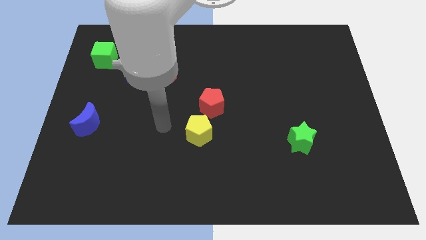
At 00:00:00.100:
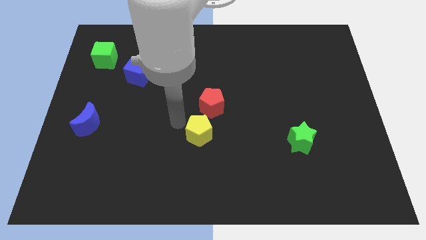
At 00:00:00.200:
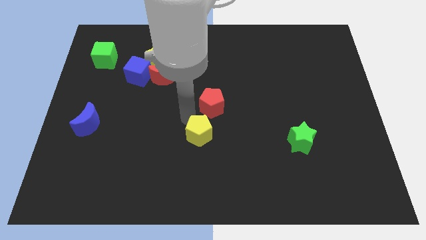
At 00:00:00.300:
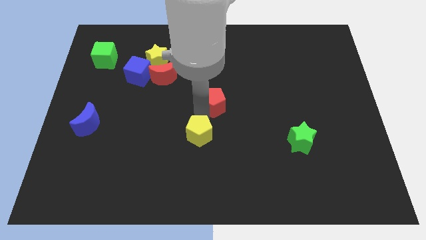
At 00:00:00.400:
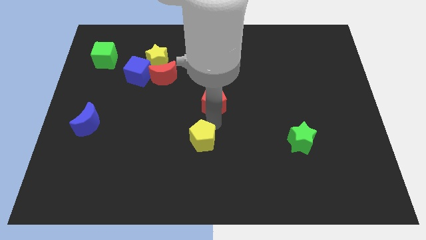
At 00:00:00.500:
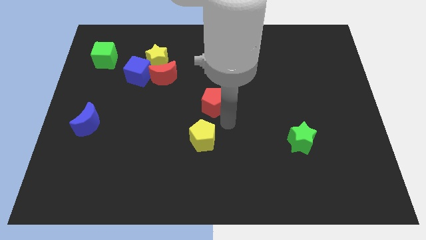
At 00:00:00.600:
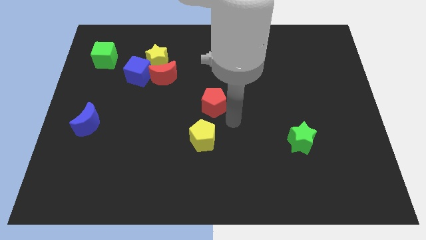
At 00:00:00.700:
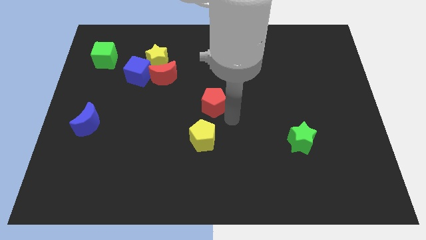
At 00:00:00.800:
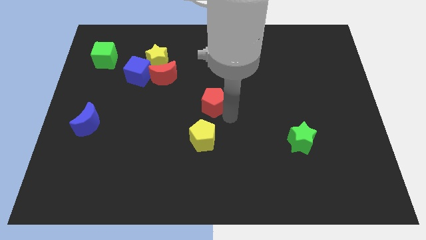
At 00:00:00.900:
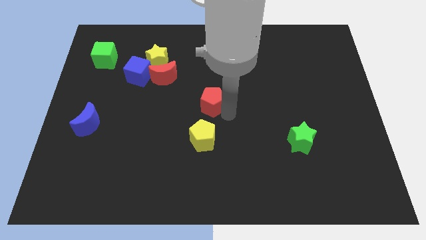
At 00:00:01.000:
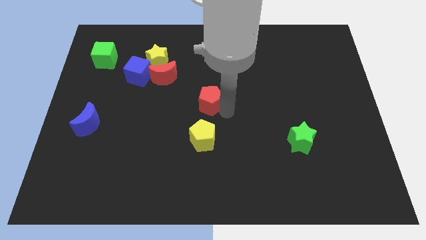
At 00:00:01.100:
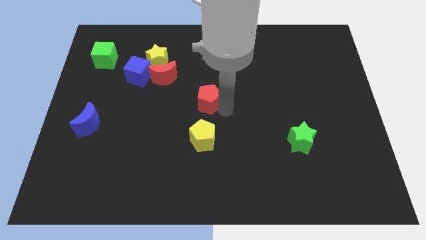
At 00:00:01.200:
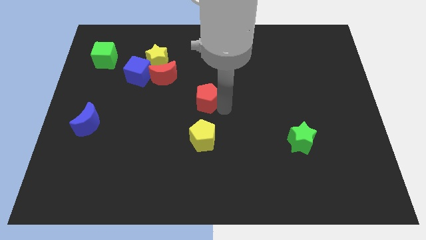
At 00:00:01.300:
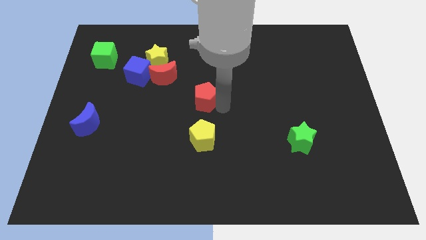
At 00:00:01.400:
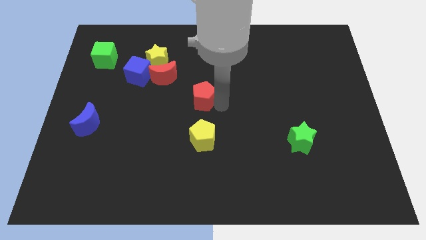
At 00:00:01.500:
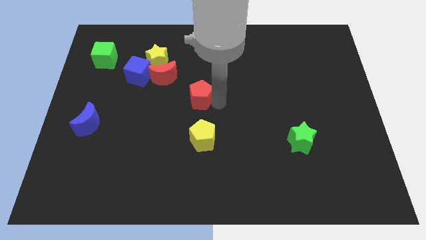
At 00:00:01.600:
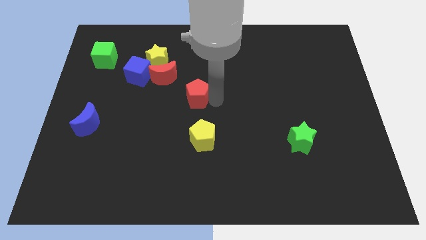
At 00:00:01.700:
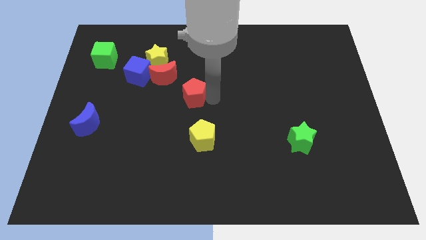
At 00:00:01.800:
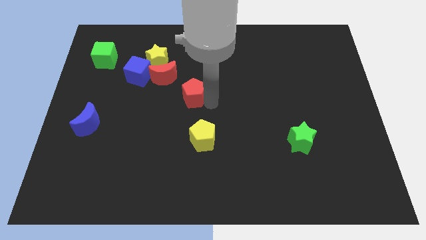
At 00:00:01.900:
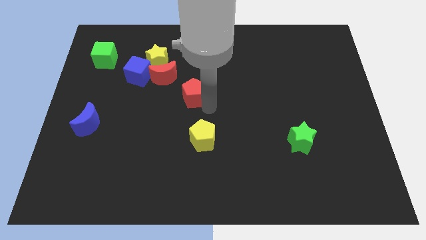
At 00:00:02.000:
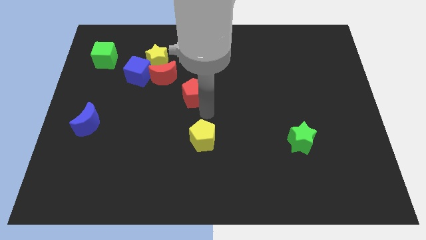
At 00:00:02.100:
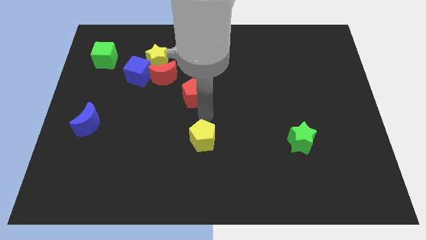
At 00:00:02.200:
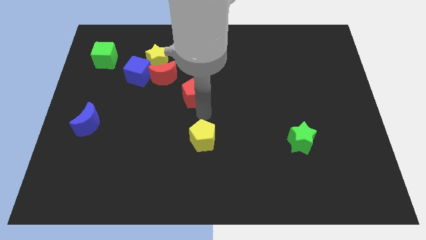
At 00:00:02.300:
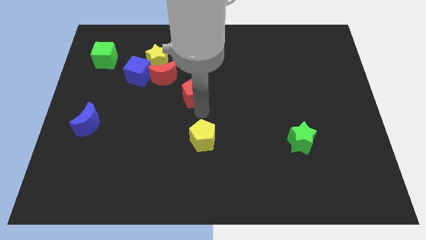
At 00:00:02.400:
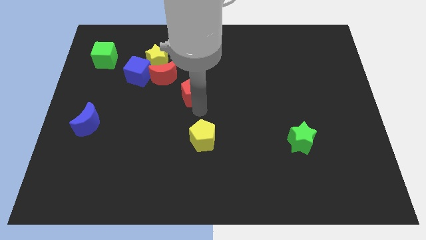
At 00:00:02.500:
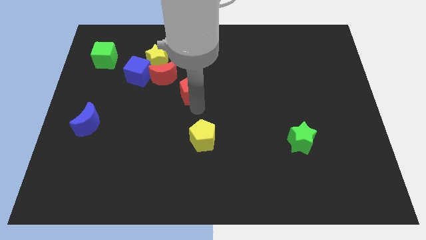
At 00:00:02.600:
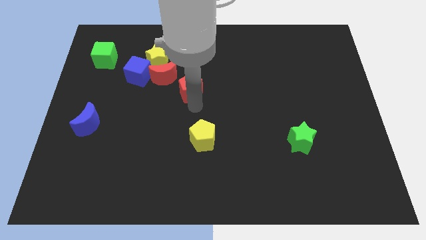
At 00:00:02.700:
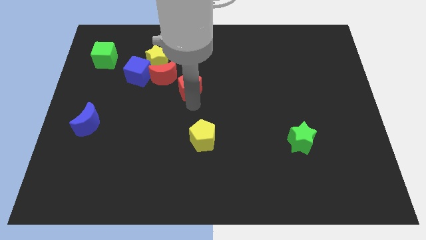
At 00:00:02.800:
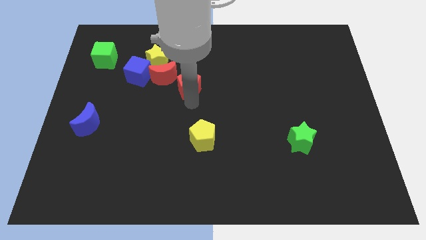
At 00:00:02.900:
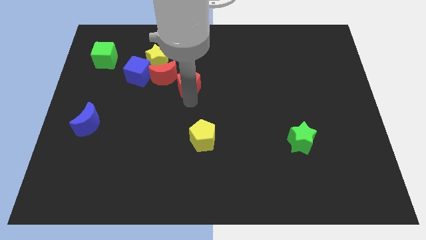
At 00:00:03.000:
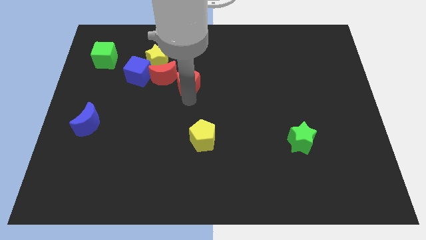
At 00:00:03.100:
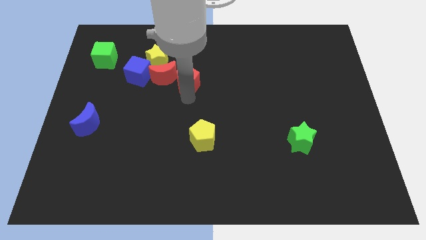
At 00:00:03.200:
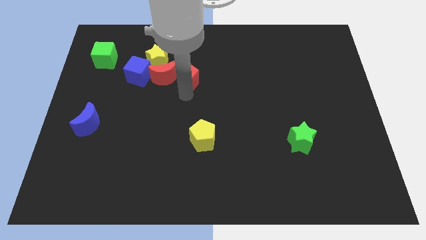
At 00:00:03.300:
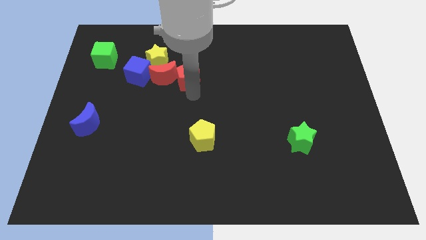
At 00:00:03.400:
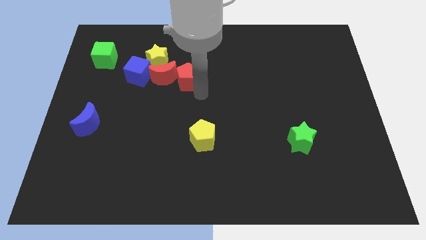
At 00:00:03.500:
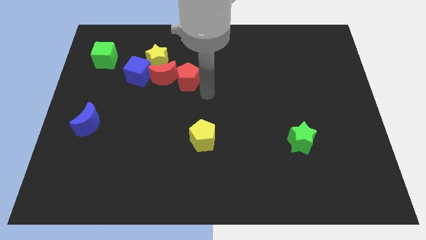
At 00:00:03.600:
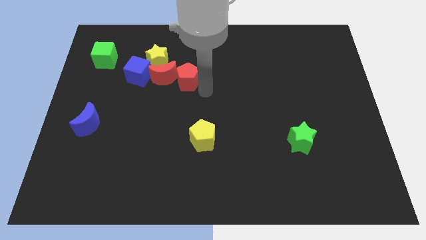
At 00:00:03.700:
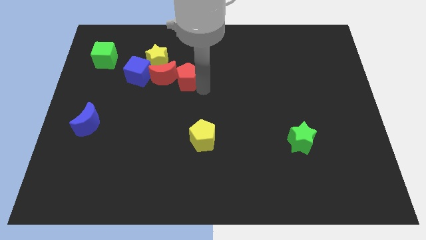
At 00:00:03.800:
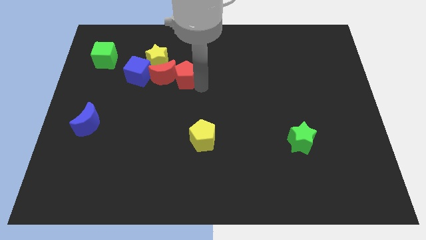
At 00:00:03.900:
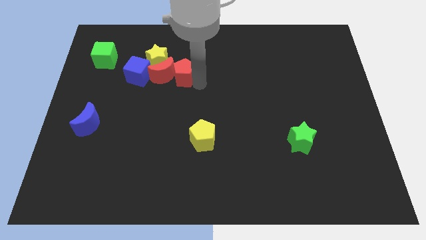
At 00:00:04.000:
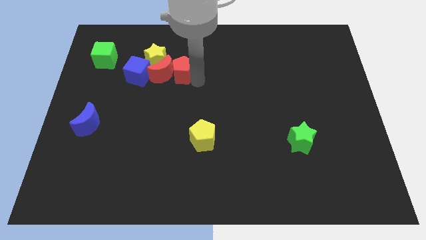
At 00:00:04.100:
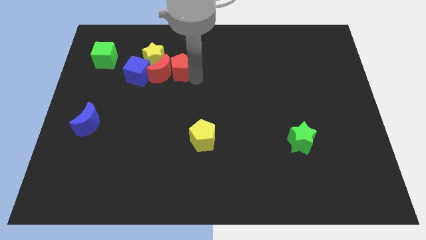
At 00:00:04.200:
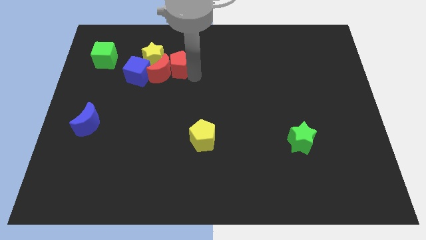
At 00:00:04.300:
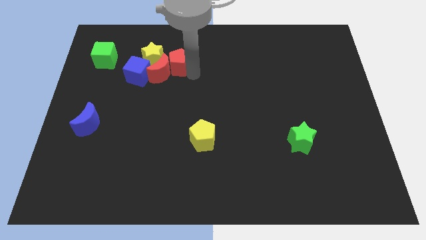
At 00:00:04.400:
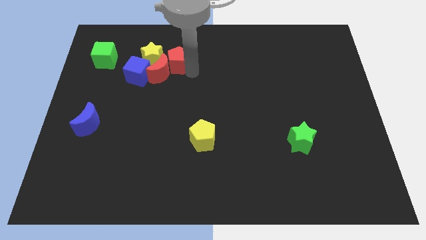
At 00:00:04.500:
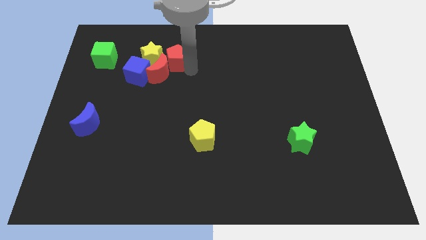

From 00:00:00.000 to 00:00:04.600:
push the red pentagon close to the yellow star

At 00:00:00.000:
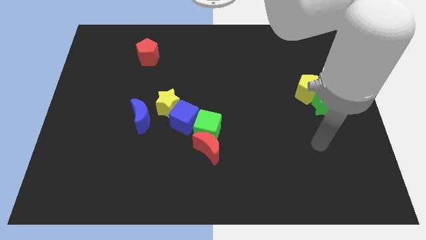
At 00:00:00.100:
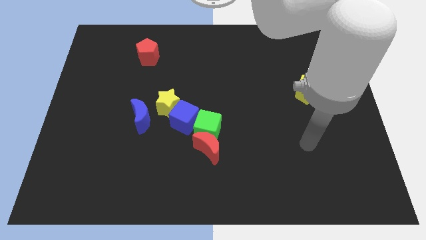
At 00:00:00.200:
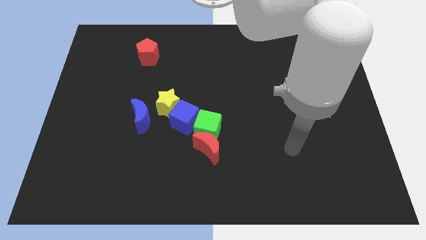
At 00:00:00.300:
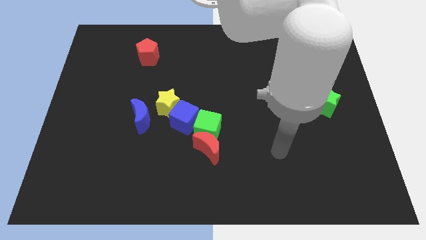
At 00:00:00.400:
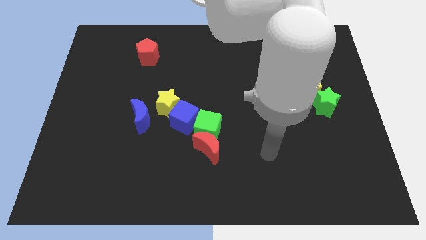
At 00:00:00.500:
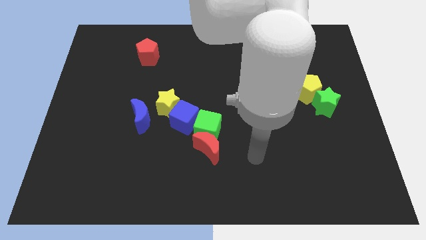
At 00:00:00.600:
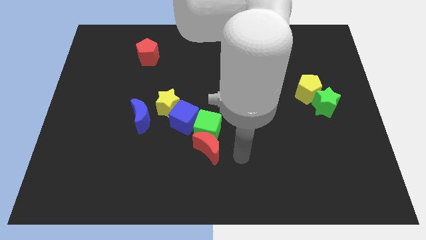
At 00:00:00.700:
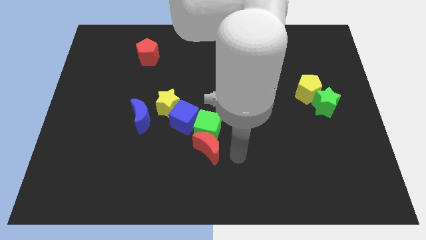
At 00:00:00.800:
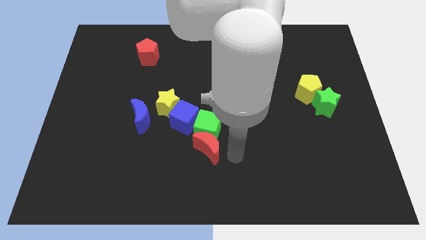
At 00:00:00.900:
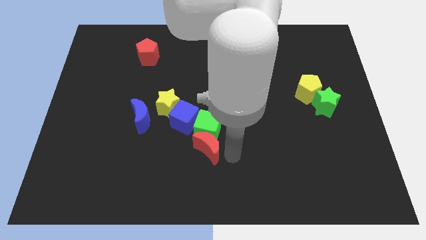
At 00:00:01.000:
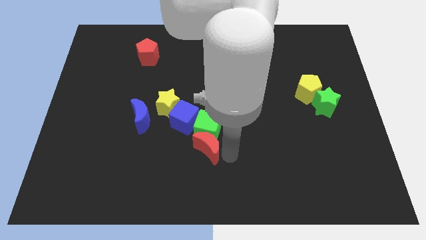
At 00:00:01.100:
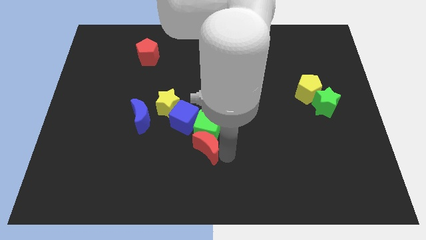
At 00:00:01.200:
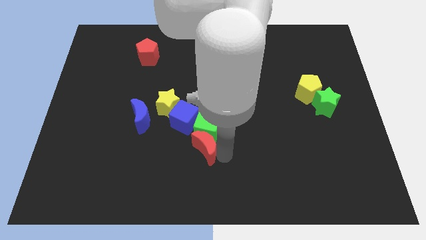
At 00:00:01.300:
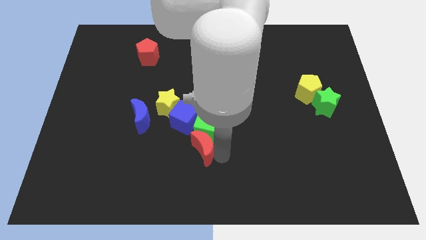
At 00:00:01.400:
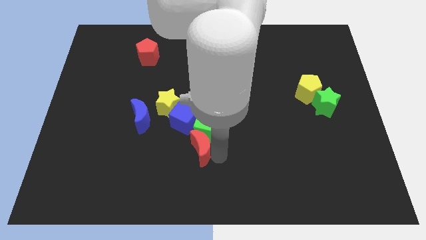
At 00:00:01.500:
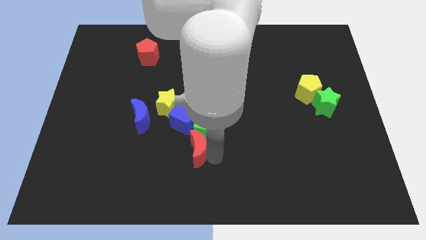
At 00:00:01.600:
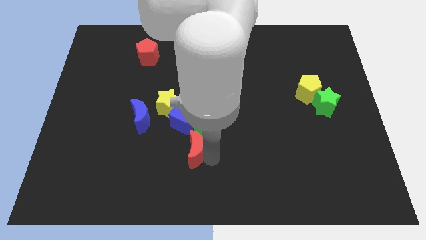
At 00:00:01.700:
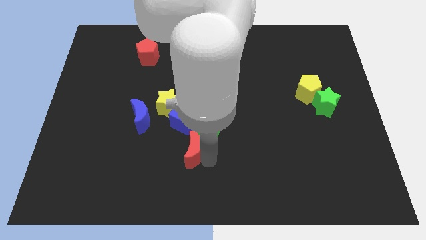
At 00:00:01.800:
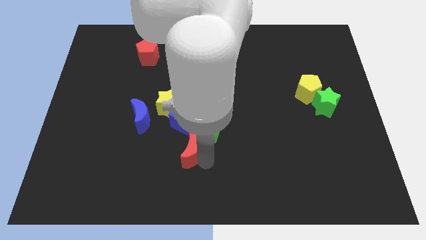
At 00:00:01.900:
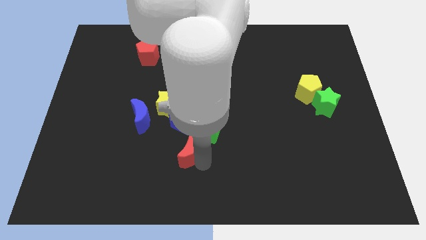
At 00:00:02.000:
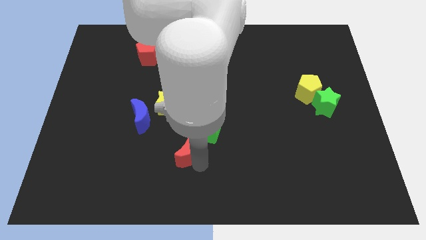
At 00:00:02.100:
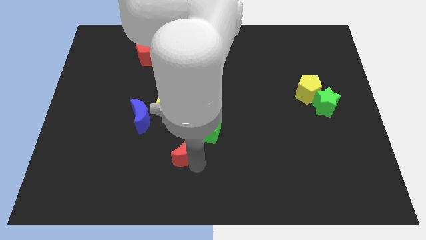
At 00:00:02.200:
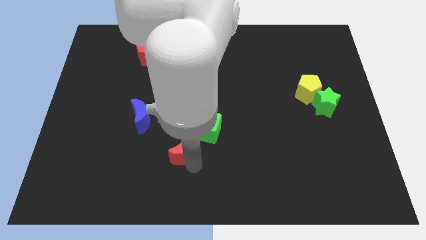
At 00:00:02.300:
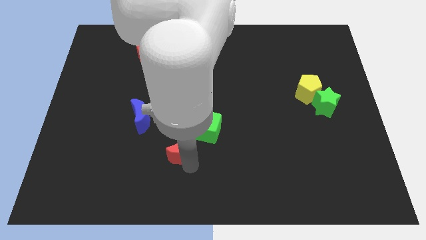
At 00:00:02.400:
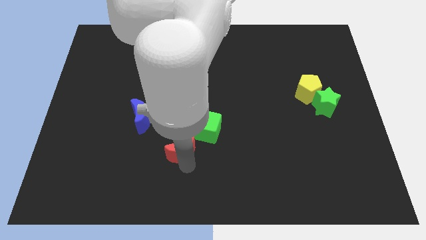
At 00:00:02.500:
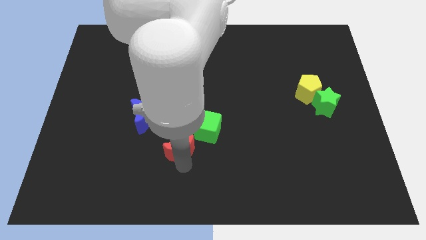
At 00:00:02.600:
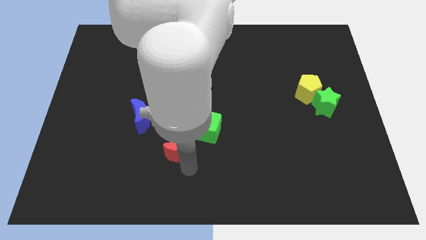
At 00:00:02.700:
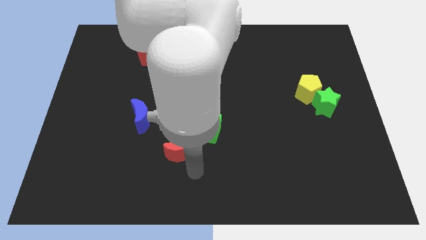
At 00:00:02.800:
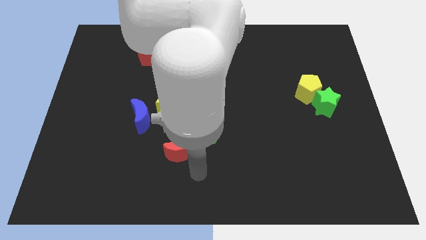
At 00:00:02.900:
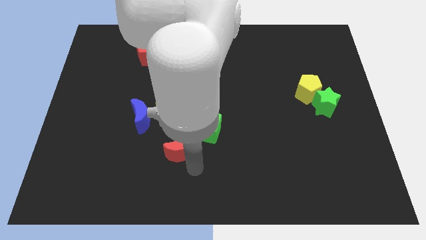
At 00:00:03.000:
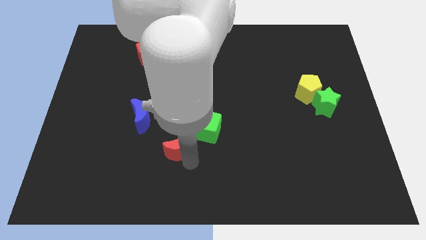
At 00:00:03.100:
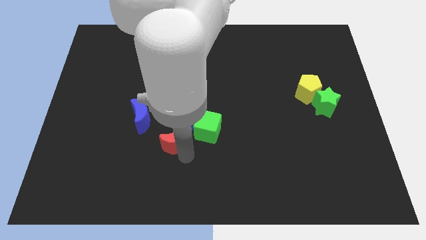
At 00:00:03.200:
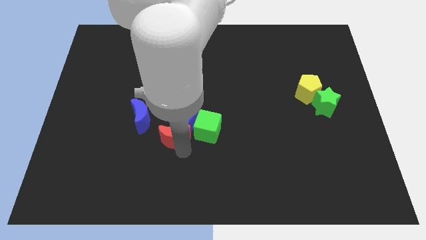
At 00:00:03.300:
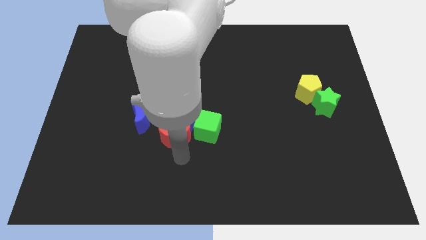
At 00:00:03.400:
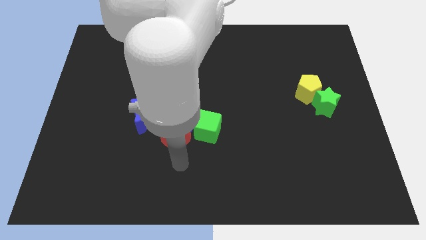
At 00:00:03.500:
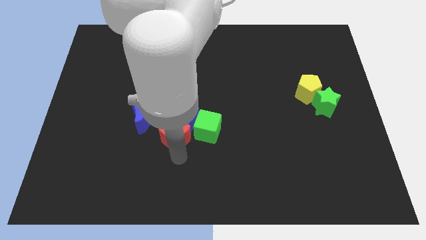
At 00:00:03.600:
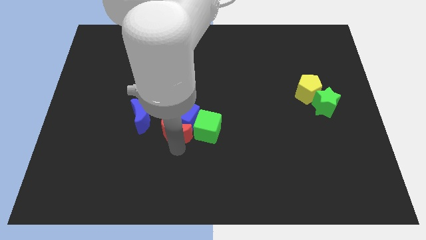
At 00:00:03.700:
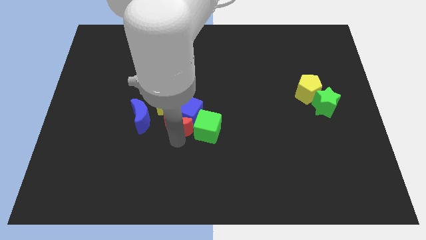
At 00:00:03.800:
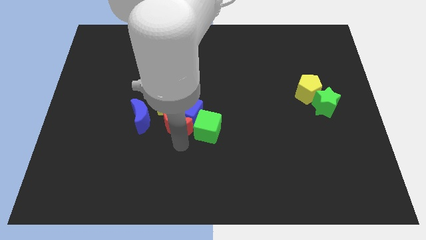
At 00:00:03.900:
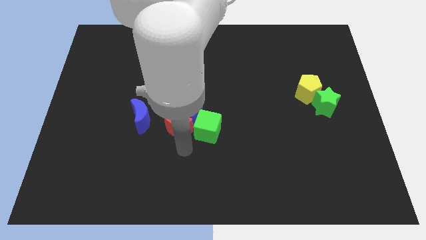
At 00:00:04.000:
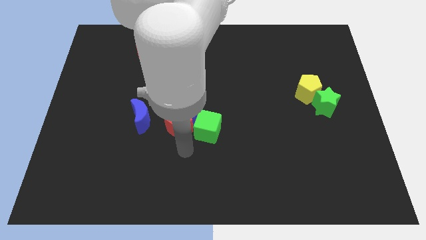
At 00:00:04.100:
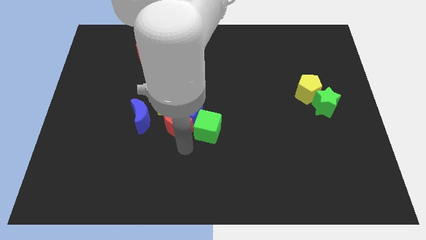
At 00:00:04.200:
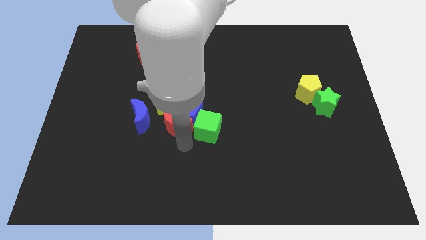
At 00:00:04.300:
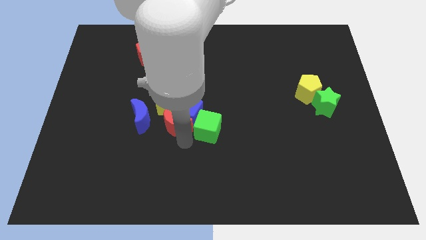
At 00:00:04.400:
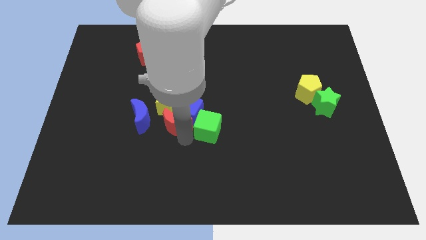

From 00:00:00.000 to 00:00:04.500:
push the red moon towards the yellow star
